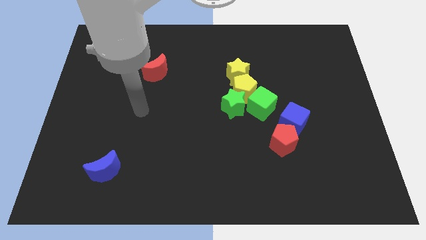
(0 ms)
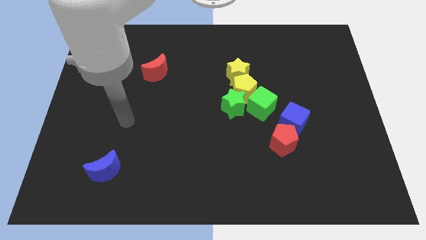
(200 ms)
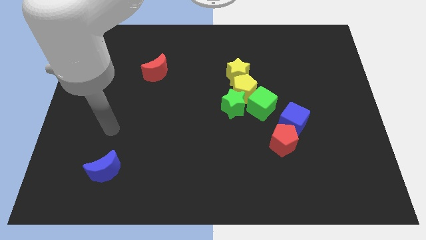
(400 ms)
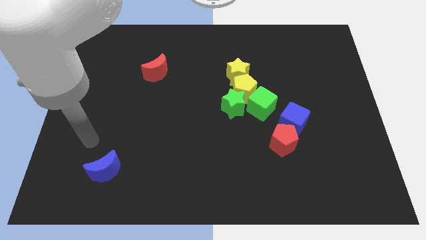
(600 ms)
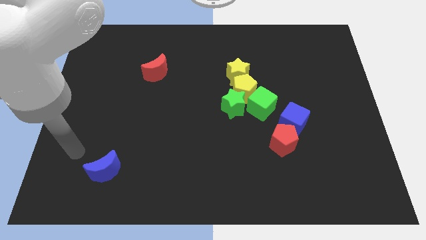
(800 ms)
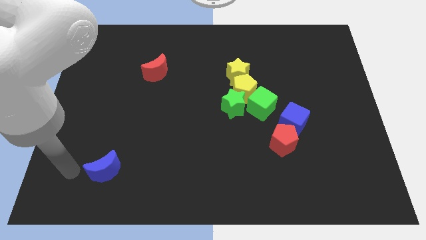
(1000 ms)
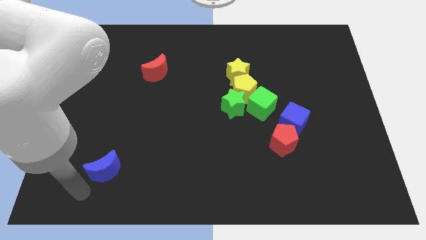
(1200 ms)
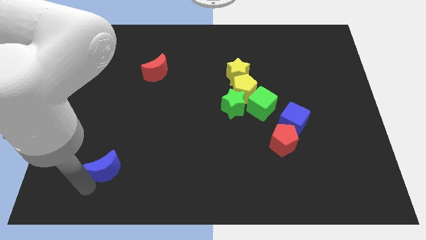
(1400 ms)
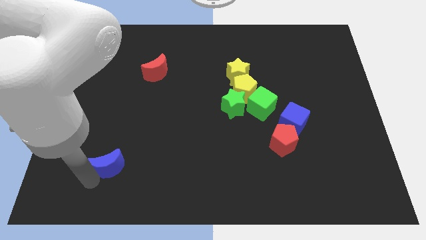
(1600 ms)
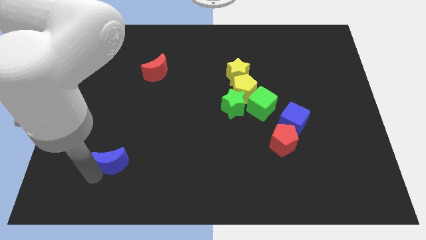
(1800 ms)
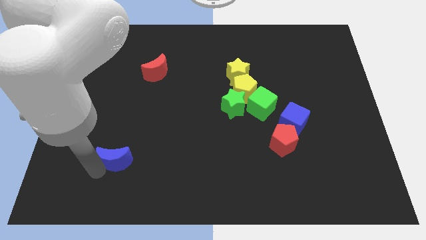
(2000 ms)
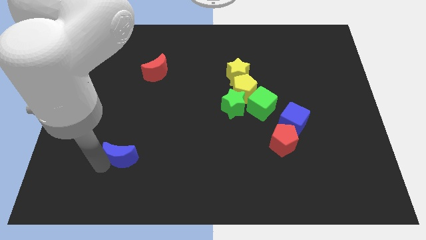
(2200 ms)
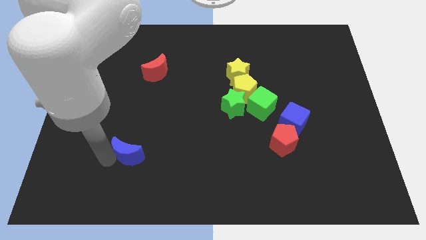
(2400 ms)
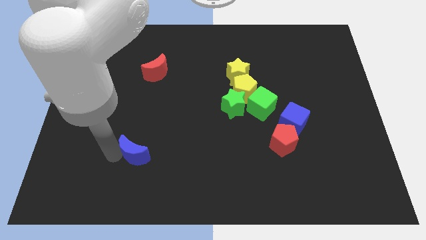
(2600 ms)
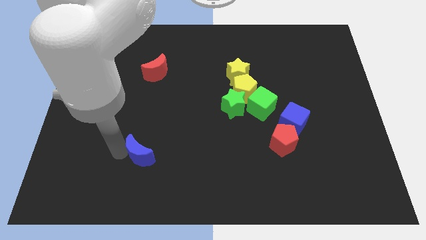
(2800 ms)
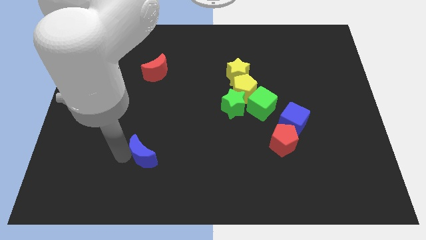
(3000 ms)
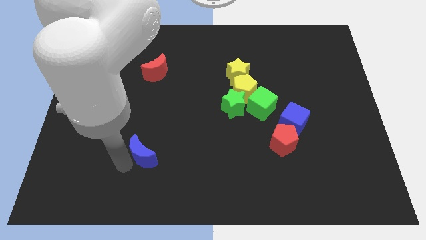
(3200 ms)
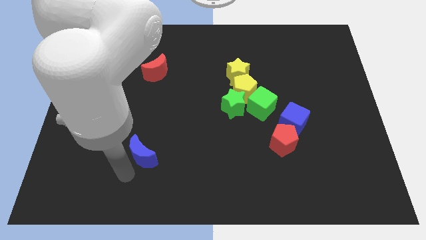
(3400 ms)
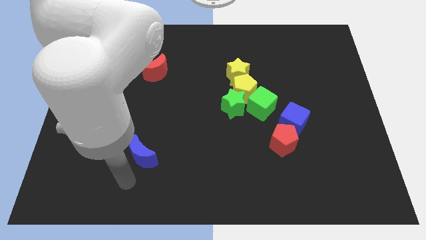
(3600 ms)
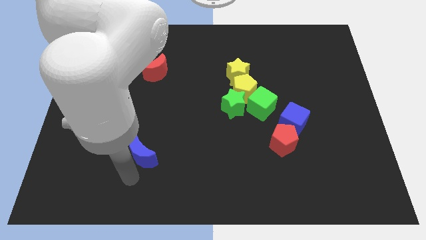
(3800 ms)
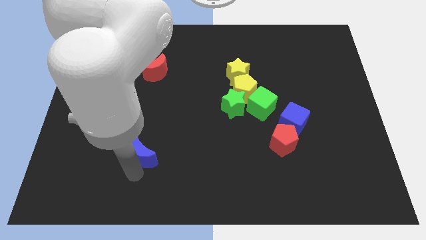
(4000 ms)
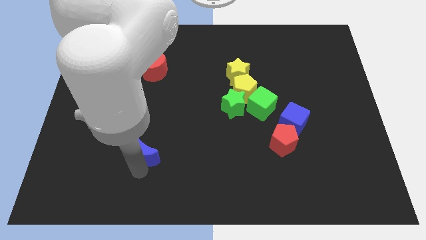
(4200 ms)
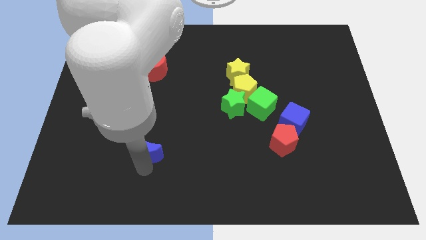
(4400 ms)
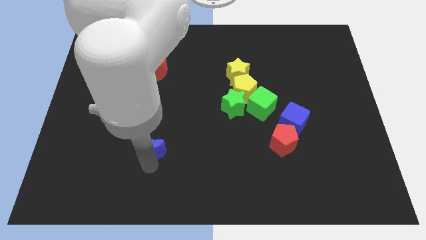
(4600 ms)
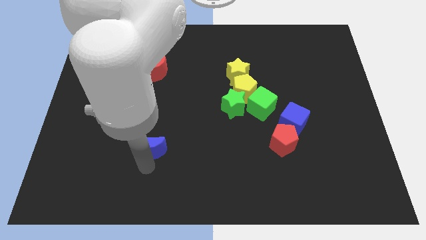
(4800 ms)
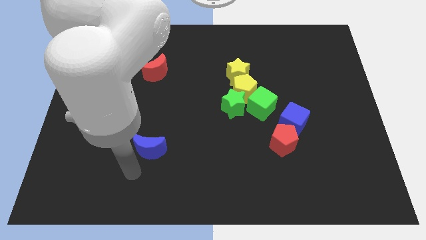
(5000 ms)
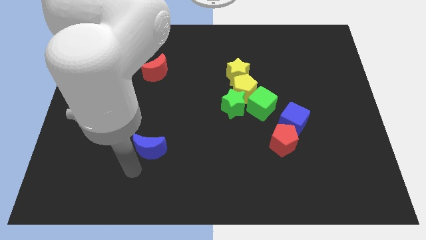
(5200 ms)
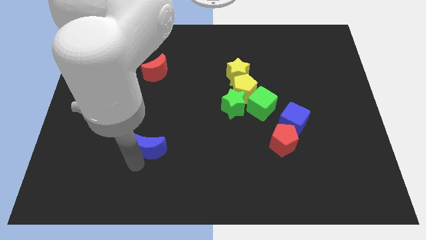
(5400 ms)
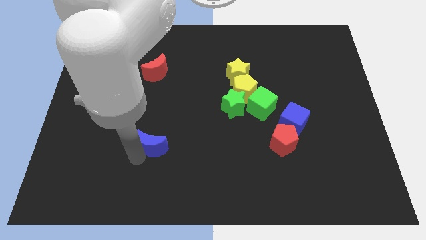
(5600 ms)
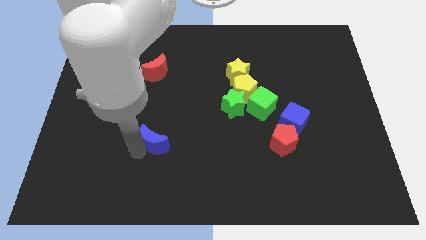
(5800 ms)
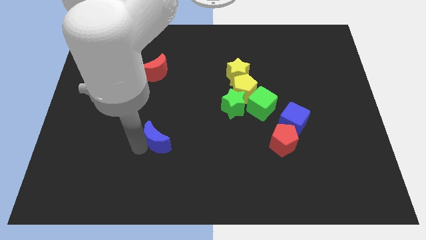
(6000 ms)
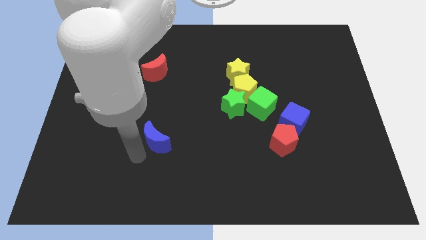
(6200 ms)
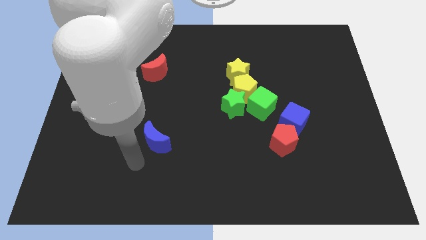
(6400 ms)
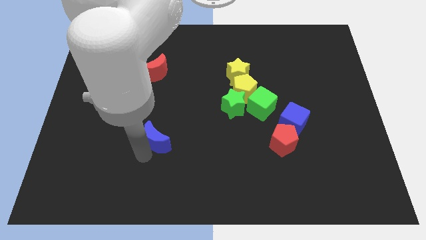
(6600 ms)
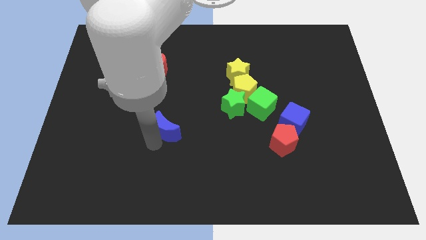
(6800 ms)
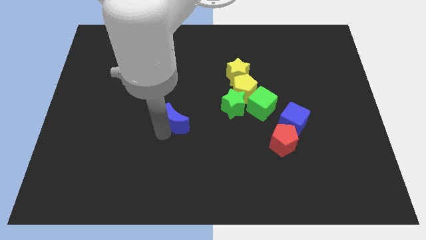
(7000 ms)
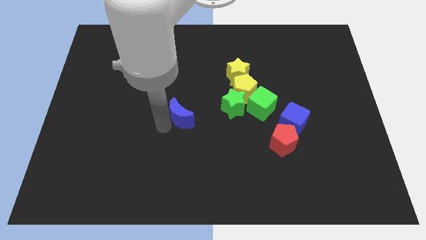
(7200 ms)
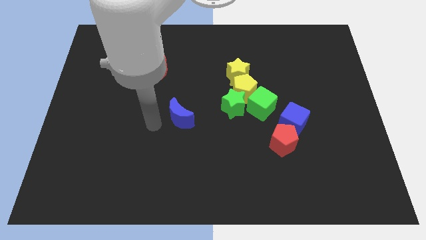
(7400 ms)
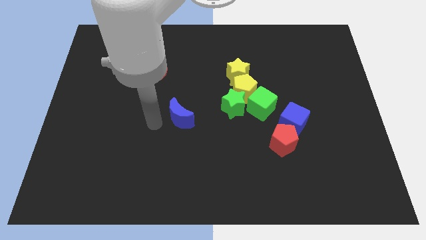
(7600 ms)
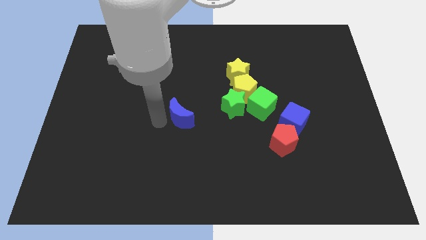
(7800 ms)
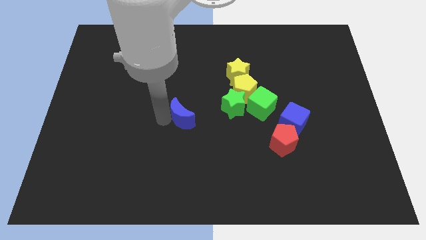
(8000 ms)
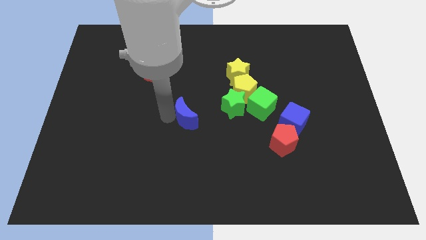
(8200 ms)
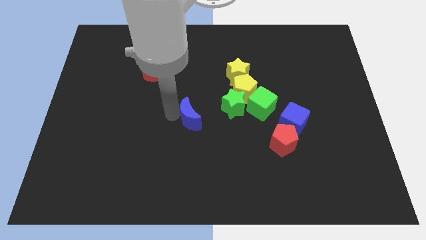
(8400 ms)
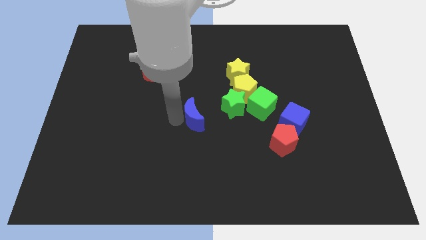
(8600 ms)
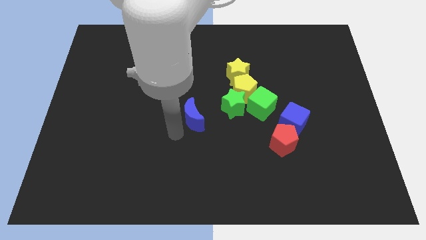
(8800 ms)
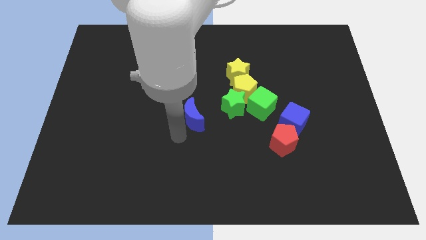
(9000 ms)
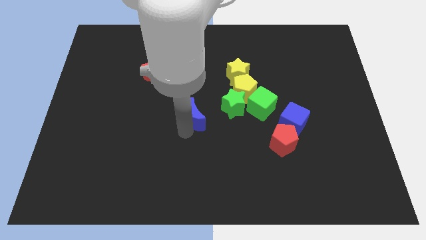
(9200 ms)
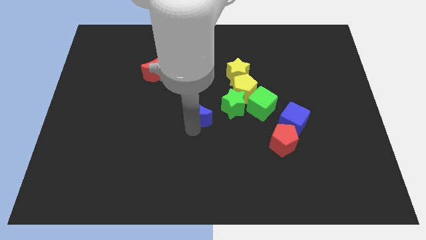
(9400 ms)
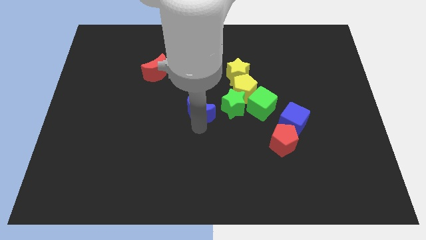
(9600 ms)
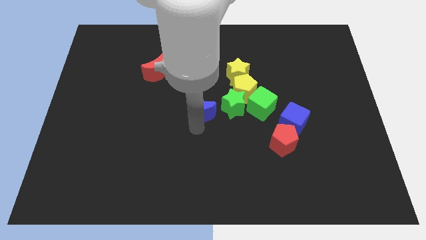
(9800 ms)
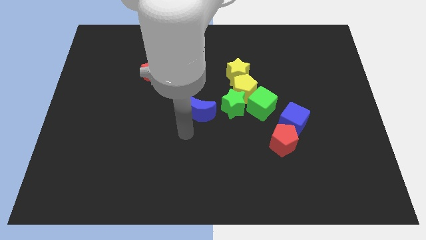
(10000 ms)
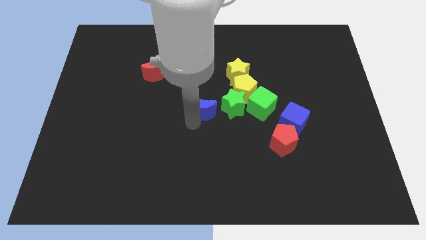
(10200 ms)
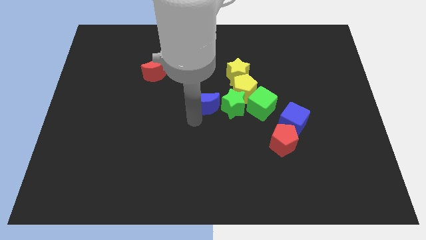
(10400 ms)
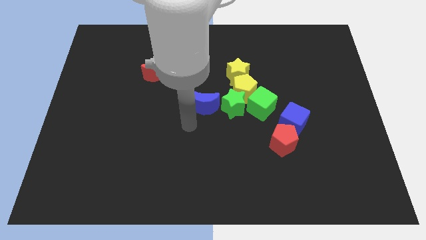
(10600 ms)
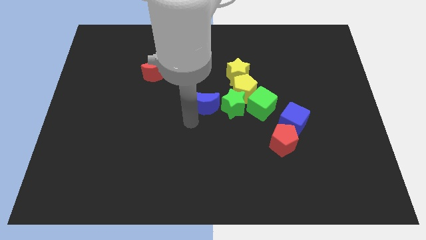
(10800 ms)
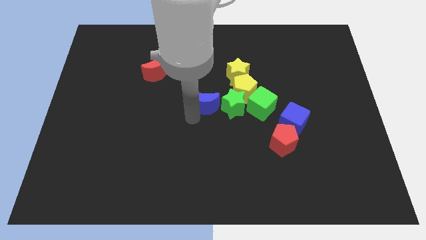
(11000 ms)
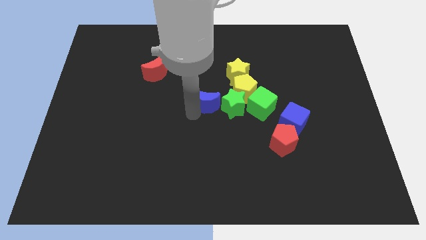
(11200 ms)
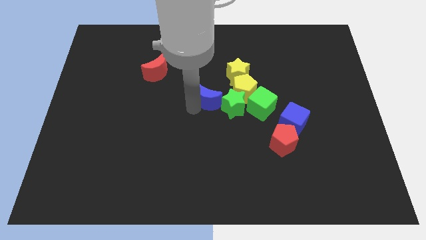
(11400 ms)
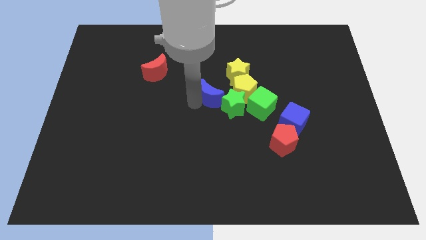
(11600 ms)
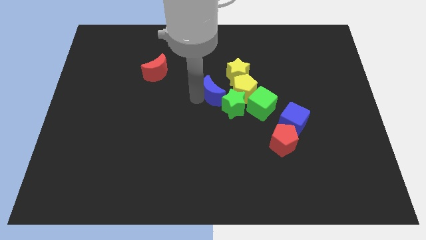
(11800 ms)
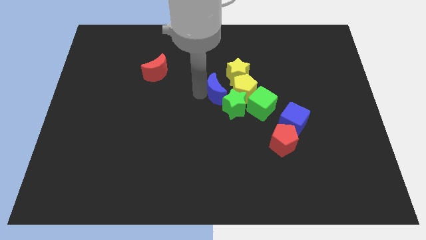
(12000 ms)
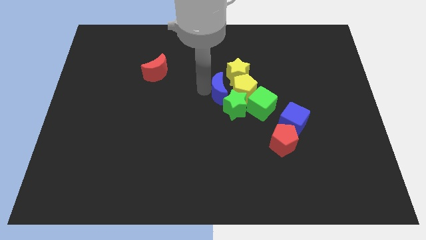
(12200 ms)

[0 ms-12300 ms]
put the blue moon to the yellow pentagon

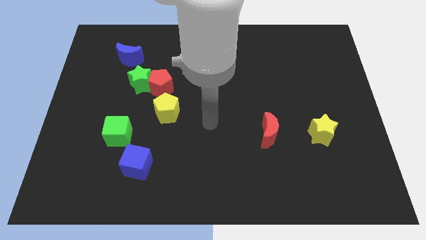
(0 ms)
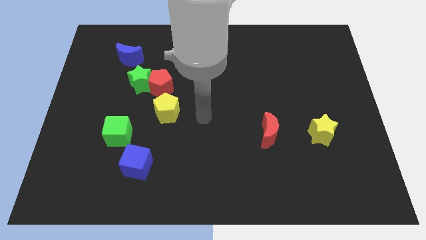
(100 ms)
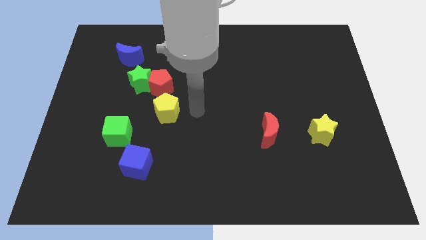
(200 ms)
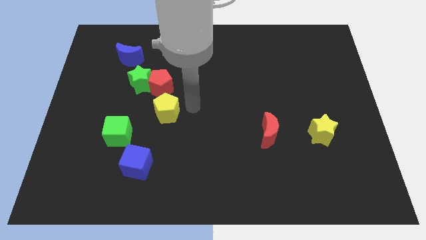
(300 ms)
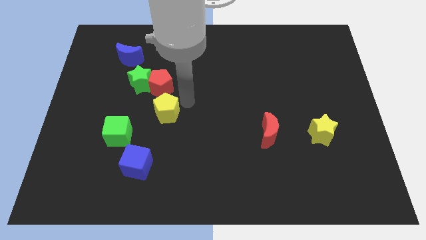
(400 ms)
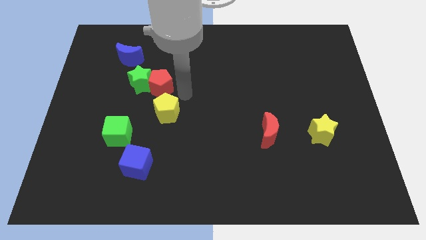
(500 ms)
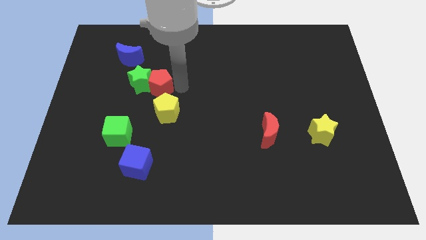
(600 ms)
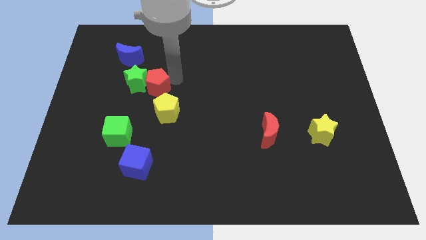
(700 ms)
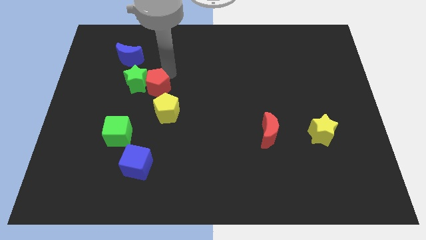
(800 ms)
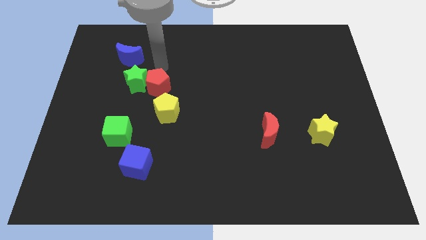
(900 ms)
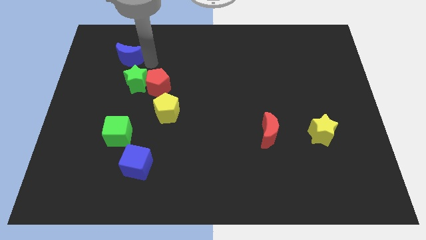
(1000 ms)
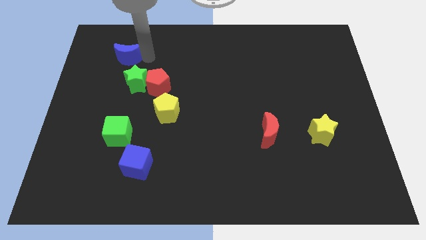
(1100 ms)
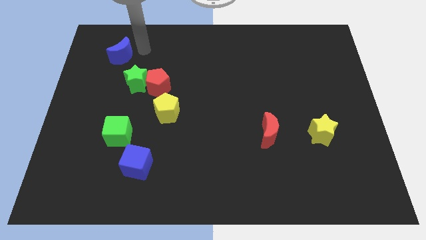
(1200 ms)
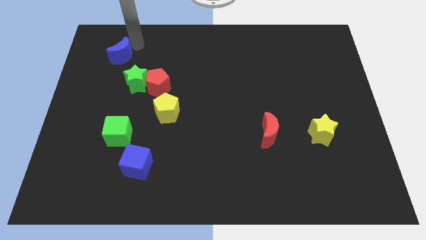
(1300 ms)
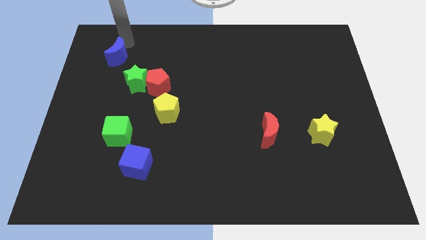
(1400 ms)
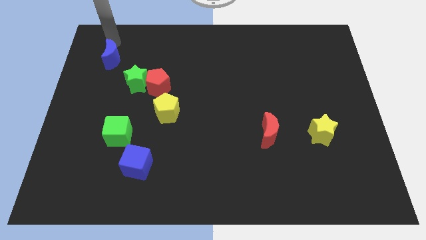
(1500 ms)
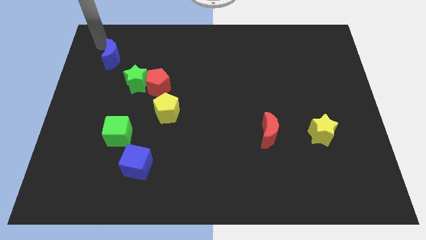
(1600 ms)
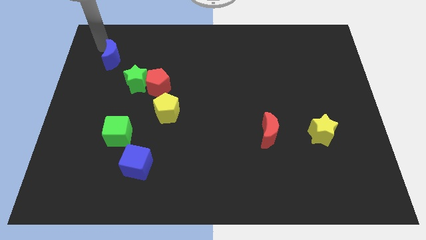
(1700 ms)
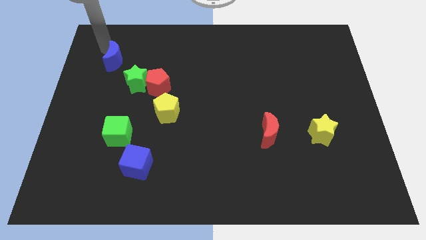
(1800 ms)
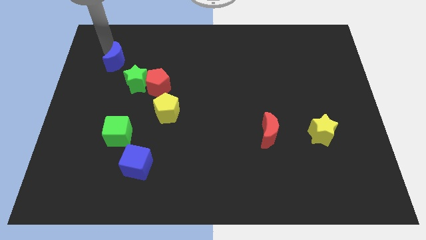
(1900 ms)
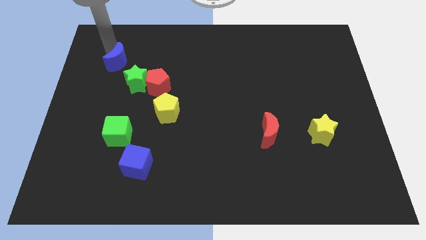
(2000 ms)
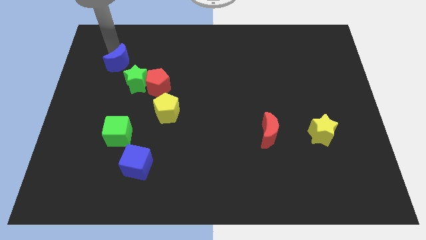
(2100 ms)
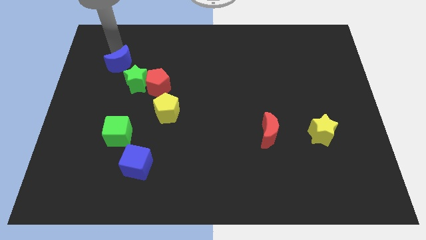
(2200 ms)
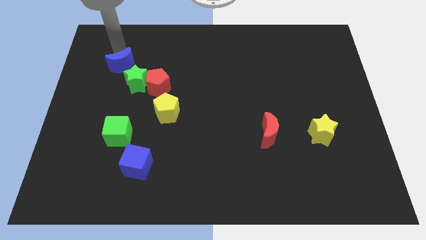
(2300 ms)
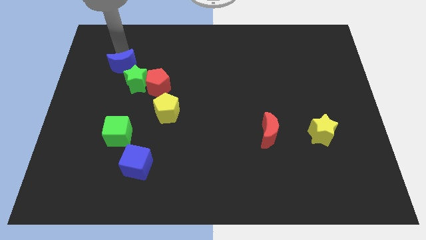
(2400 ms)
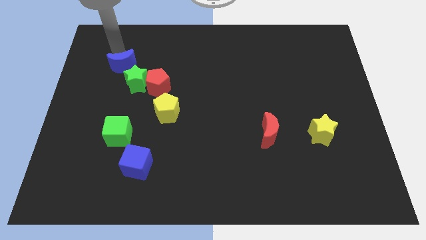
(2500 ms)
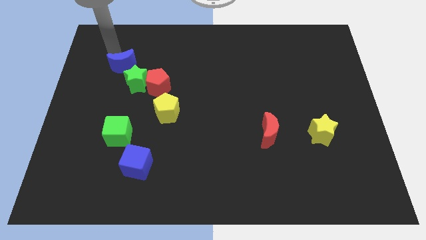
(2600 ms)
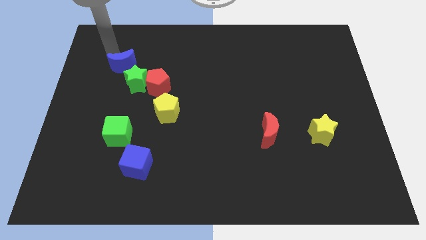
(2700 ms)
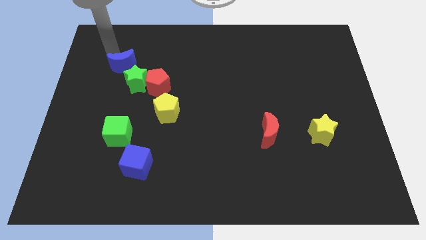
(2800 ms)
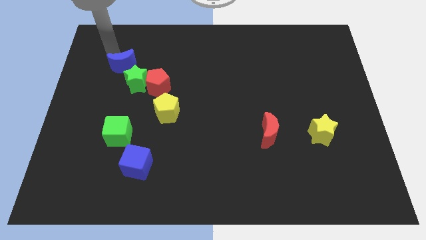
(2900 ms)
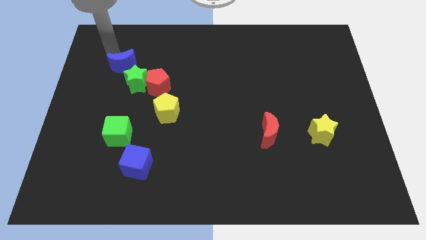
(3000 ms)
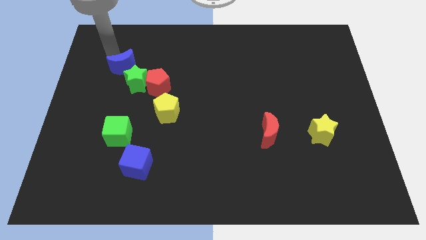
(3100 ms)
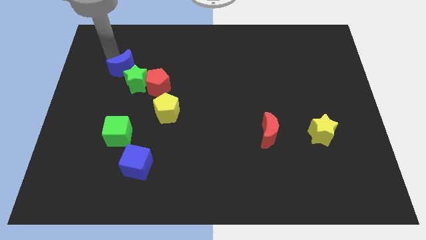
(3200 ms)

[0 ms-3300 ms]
slide the blue moon next to the green star
